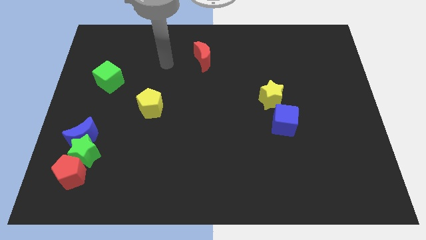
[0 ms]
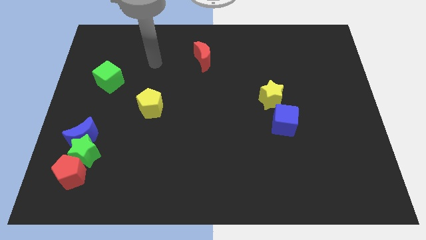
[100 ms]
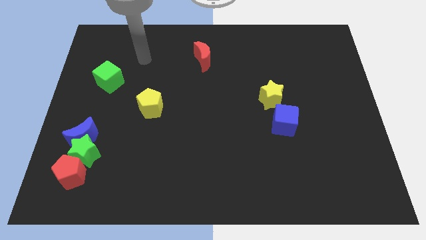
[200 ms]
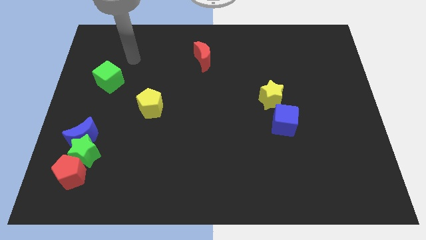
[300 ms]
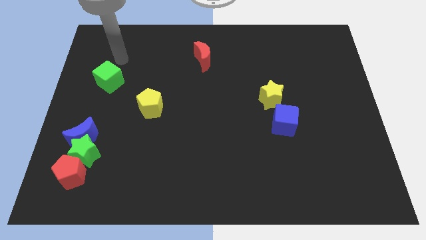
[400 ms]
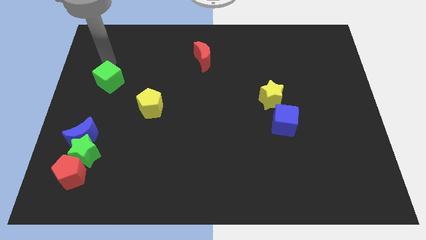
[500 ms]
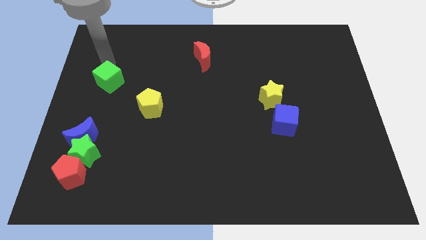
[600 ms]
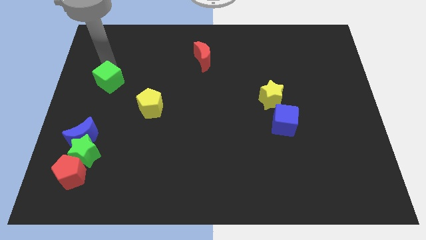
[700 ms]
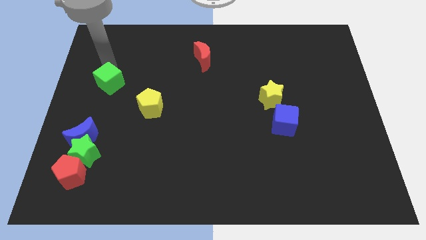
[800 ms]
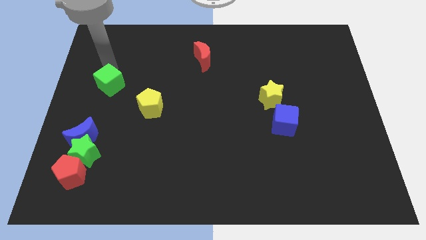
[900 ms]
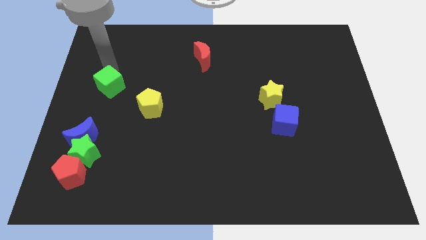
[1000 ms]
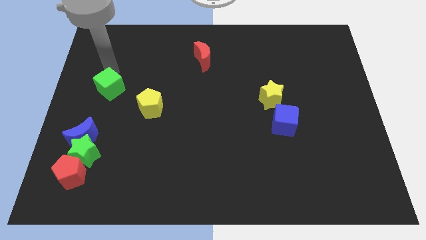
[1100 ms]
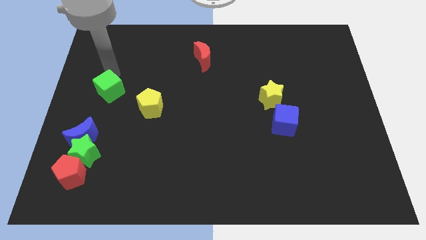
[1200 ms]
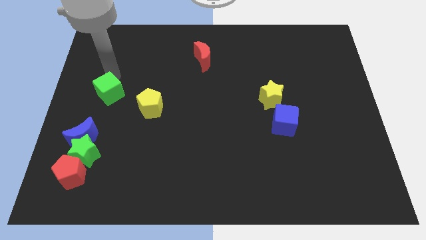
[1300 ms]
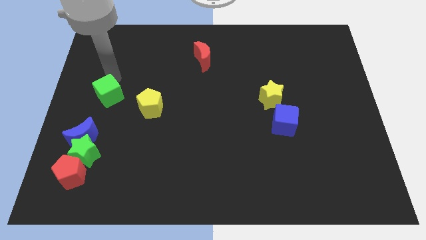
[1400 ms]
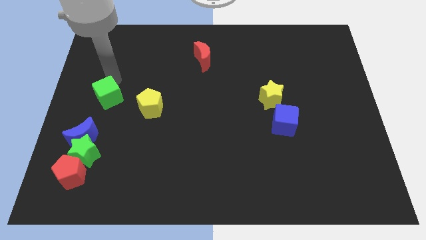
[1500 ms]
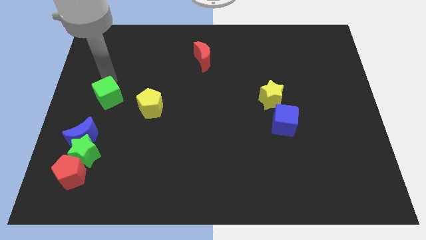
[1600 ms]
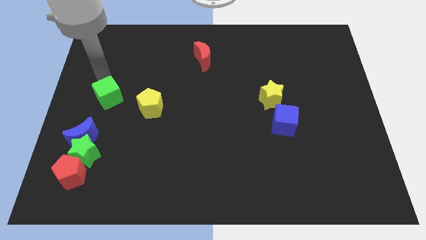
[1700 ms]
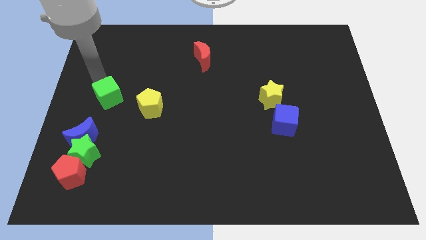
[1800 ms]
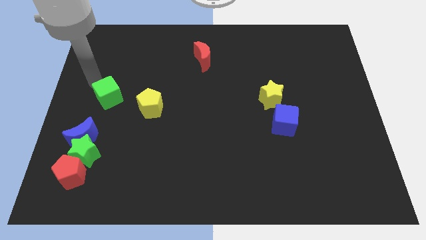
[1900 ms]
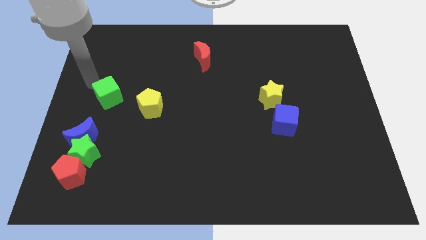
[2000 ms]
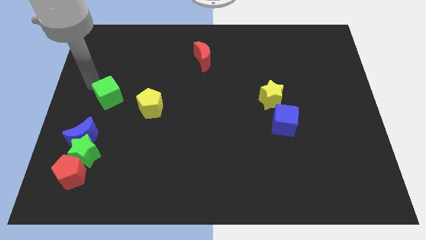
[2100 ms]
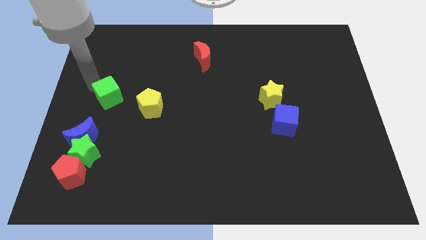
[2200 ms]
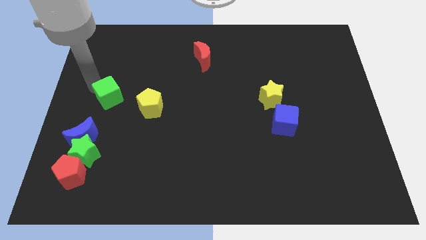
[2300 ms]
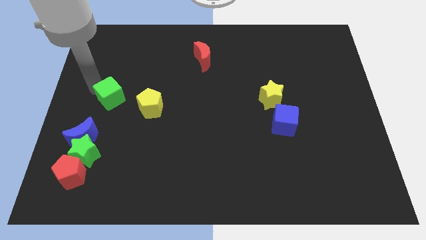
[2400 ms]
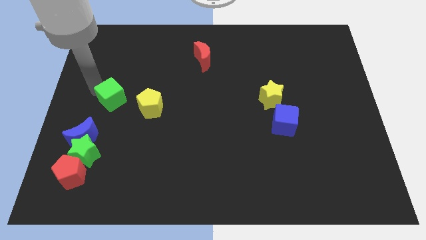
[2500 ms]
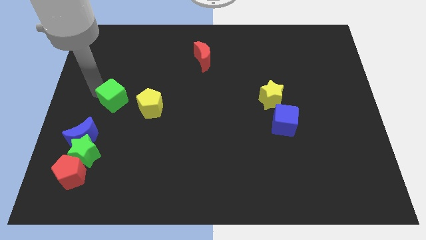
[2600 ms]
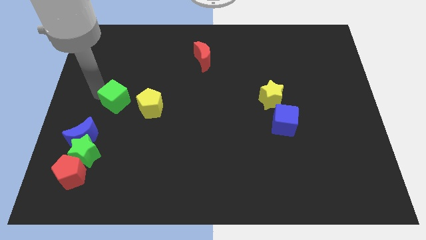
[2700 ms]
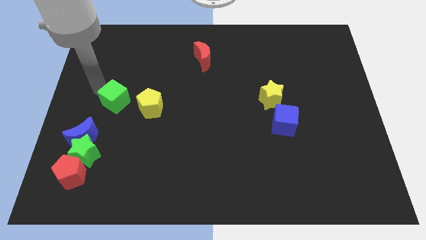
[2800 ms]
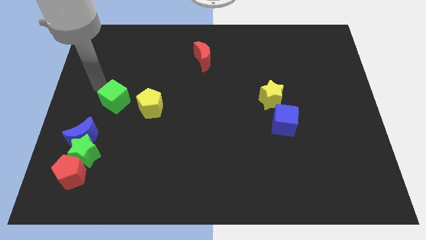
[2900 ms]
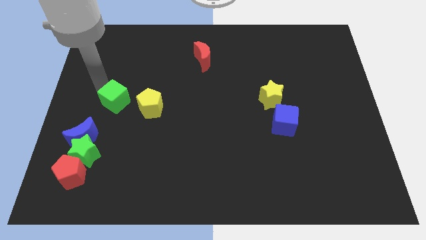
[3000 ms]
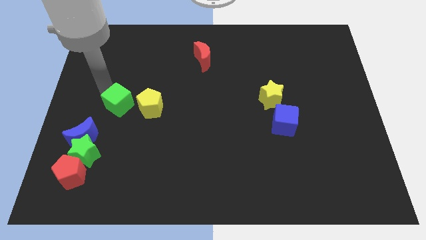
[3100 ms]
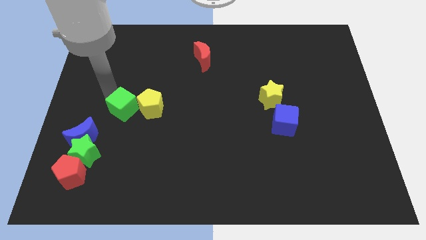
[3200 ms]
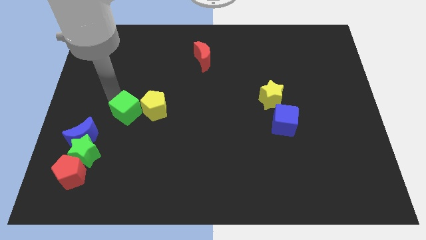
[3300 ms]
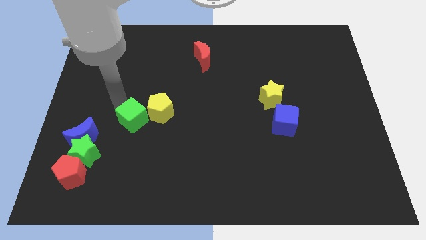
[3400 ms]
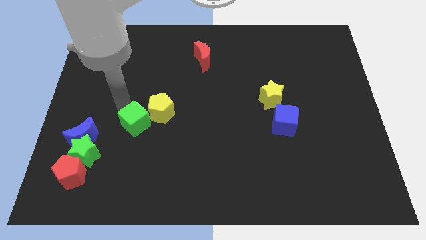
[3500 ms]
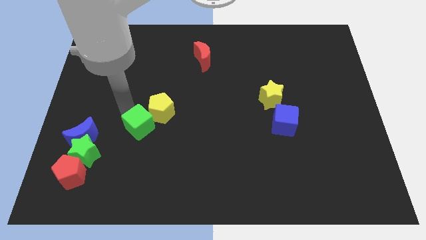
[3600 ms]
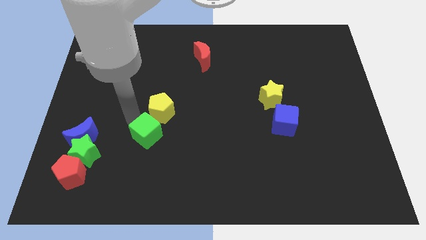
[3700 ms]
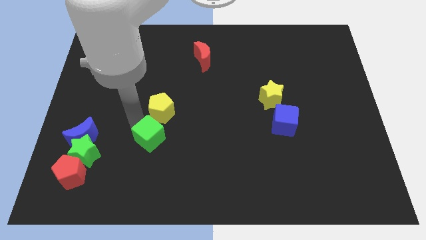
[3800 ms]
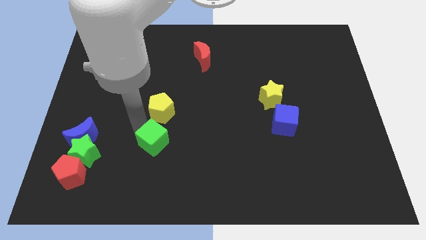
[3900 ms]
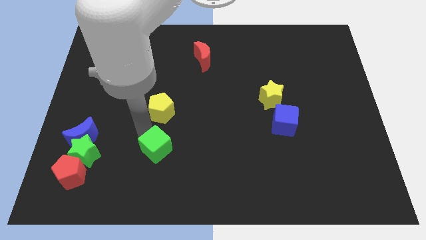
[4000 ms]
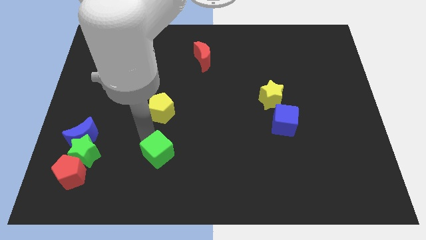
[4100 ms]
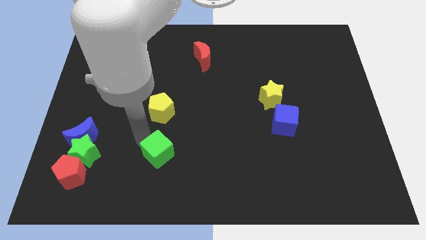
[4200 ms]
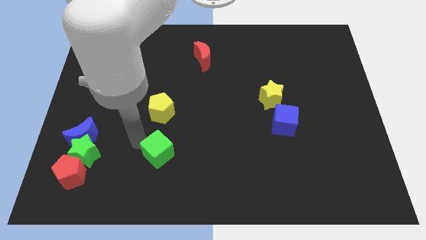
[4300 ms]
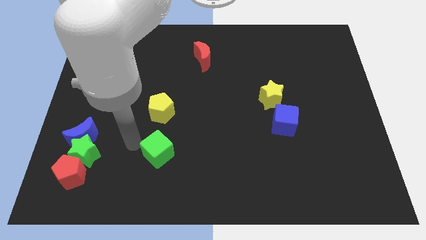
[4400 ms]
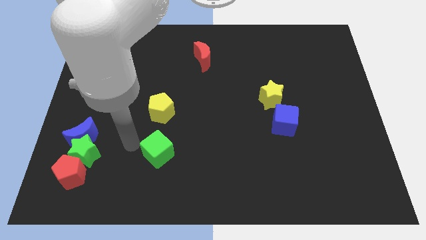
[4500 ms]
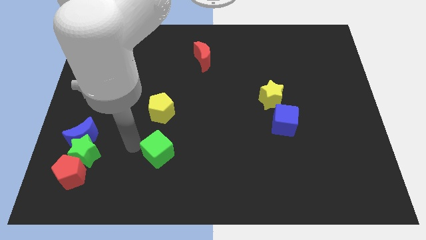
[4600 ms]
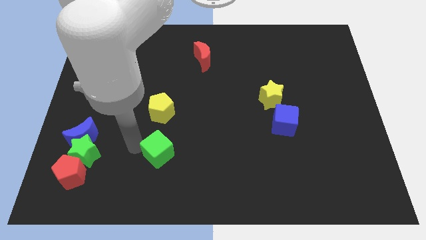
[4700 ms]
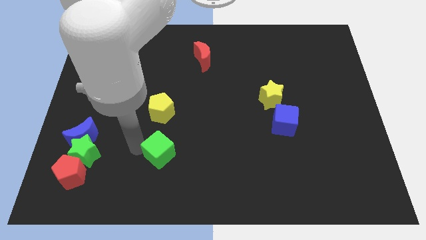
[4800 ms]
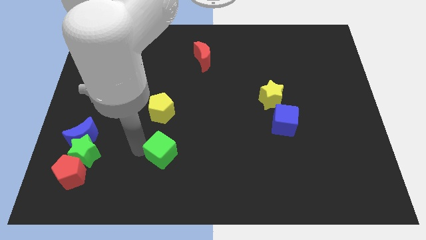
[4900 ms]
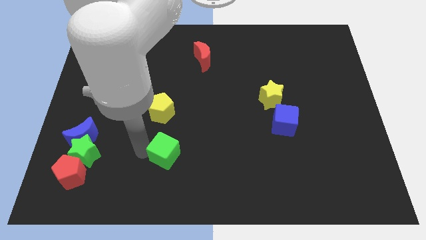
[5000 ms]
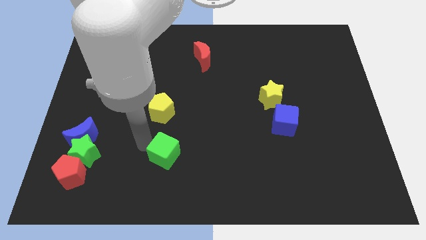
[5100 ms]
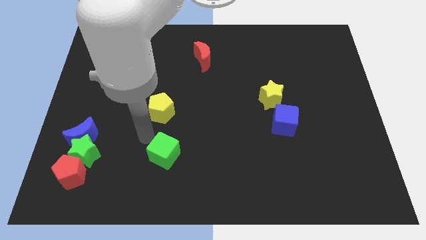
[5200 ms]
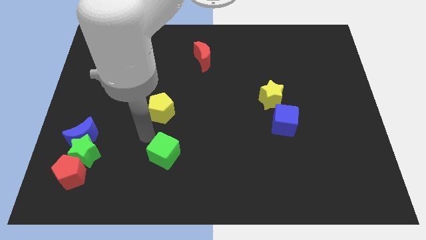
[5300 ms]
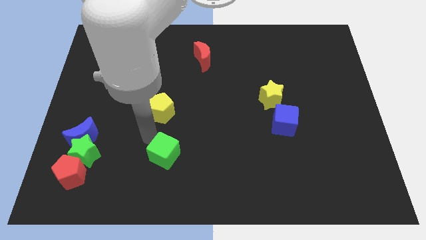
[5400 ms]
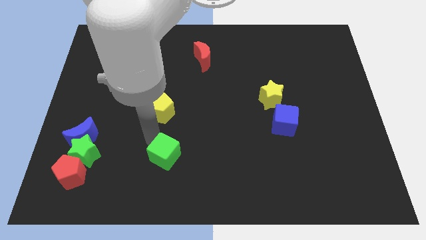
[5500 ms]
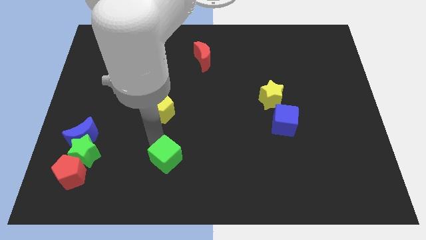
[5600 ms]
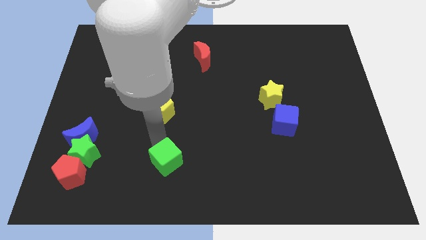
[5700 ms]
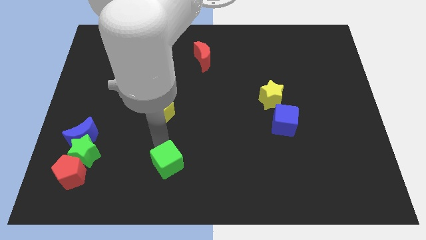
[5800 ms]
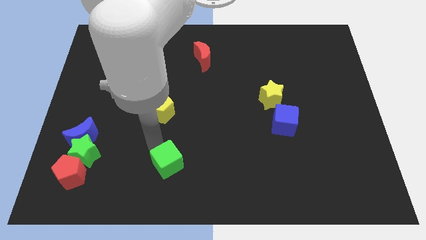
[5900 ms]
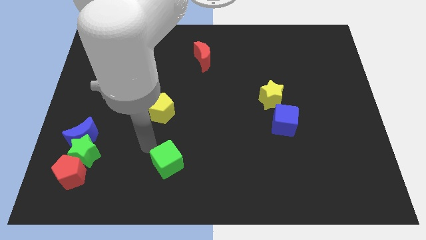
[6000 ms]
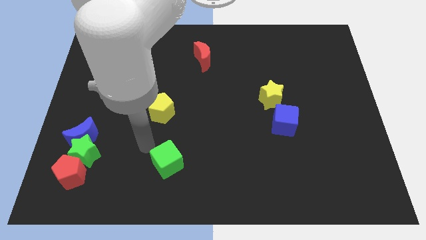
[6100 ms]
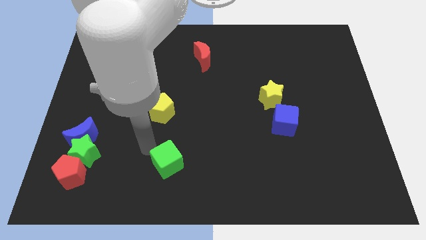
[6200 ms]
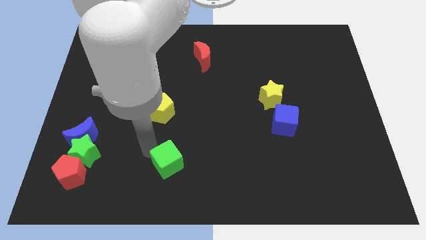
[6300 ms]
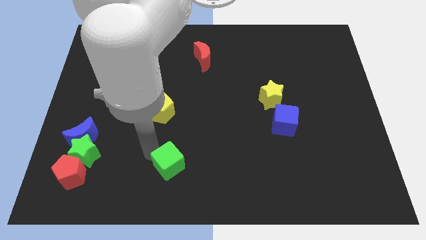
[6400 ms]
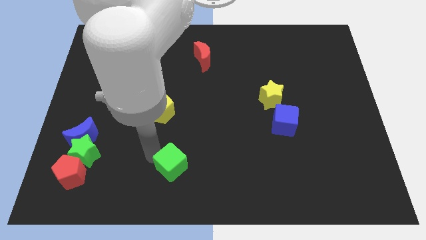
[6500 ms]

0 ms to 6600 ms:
put the green cube to the bottom
